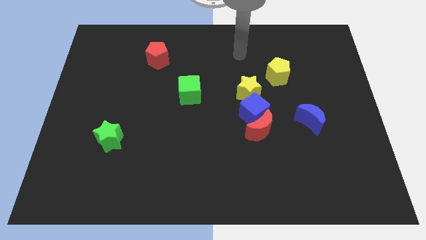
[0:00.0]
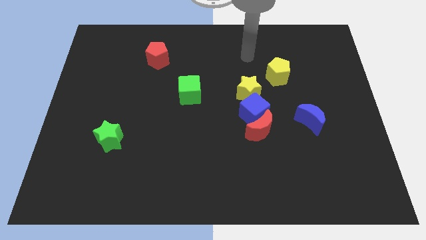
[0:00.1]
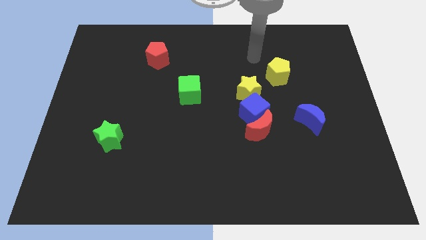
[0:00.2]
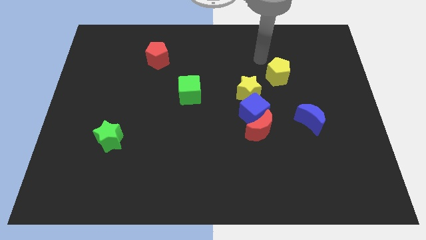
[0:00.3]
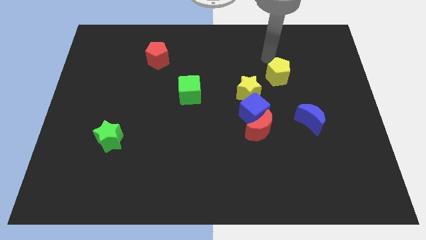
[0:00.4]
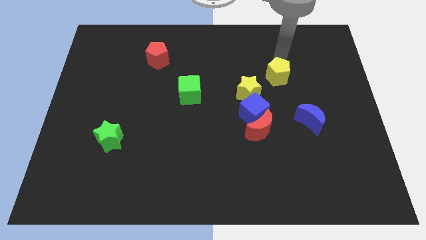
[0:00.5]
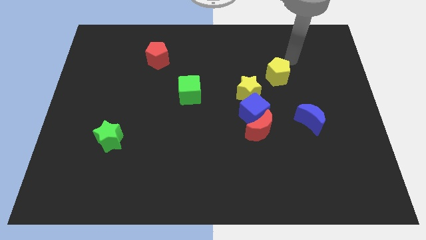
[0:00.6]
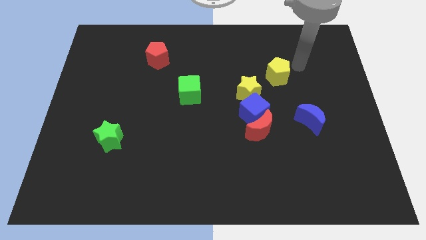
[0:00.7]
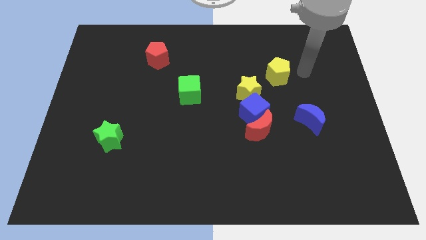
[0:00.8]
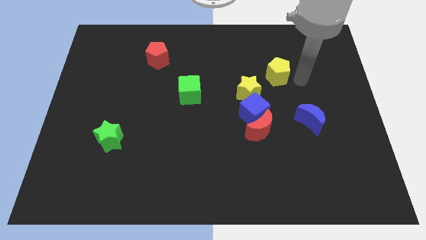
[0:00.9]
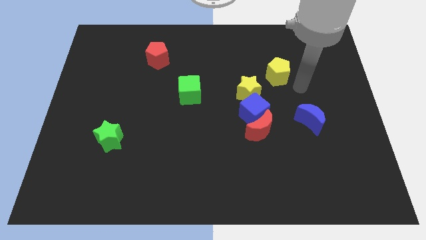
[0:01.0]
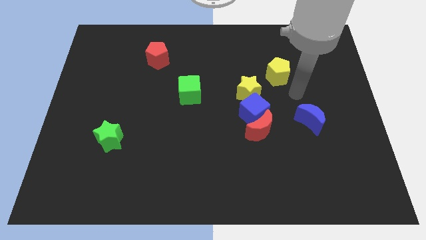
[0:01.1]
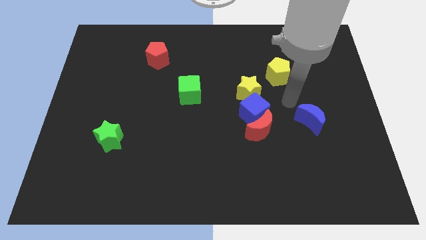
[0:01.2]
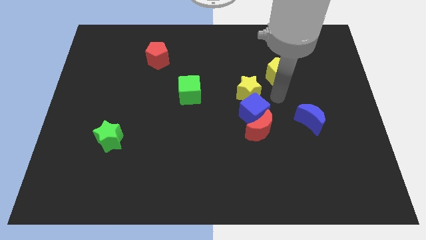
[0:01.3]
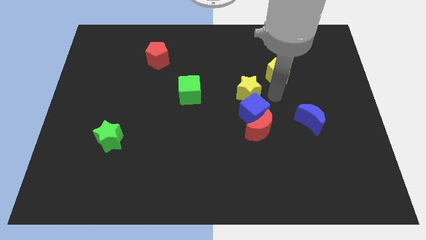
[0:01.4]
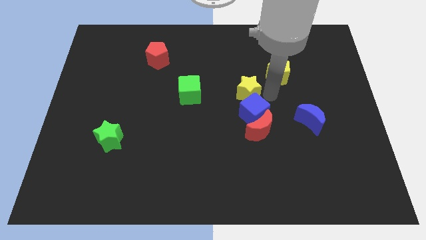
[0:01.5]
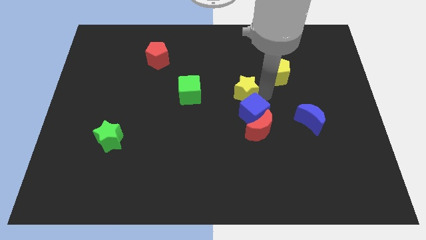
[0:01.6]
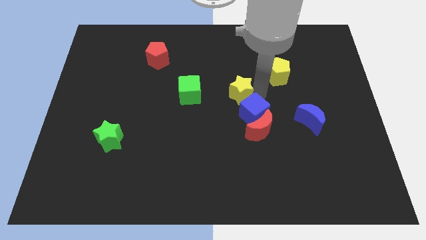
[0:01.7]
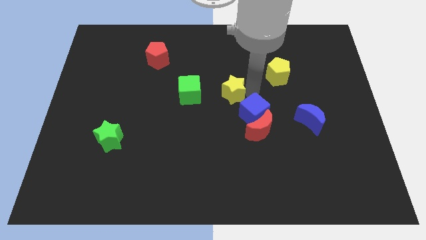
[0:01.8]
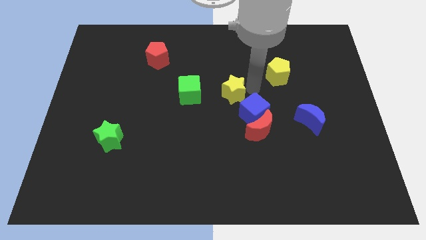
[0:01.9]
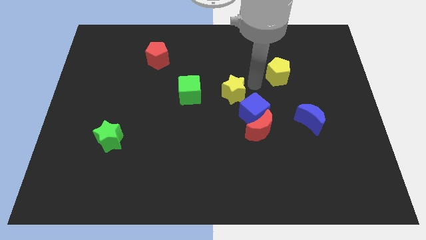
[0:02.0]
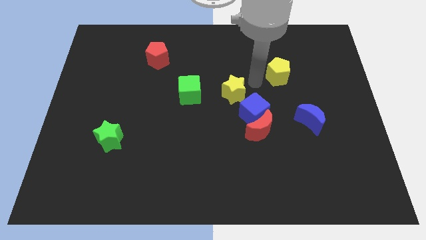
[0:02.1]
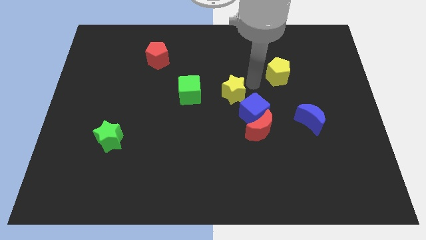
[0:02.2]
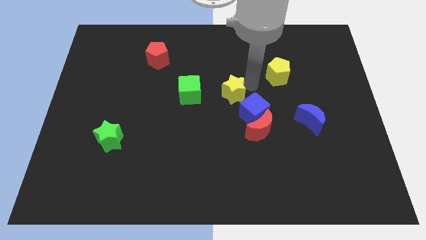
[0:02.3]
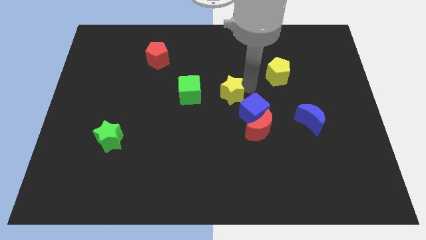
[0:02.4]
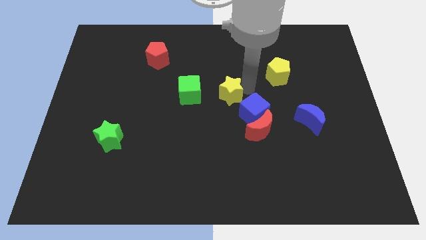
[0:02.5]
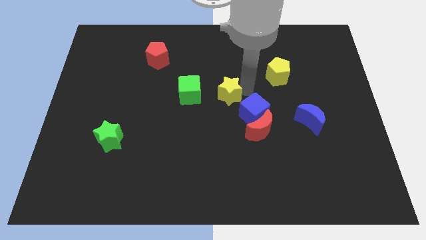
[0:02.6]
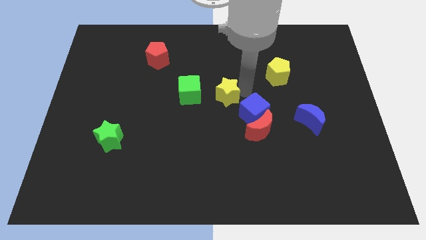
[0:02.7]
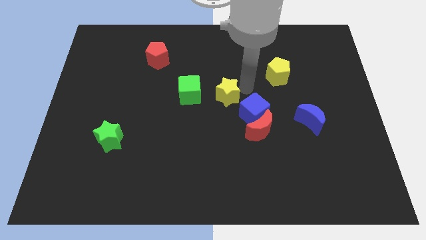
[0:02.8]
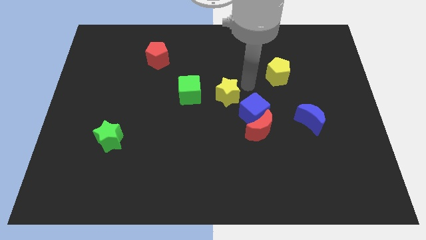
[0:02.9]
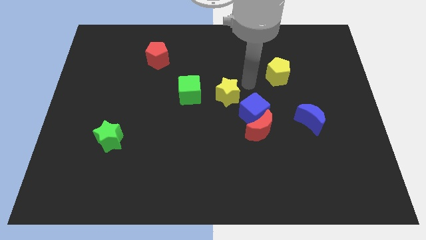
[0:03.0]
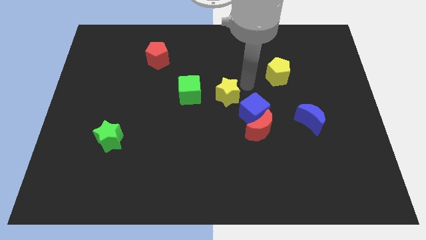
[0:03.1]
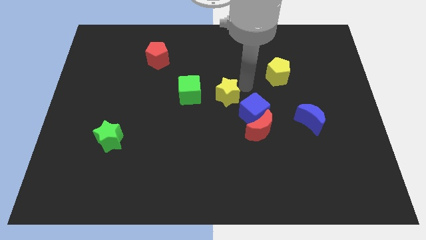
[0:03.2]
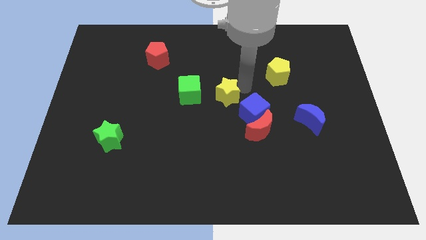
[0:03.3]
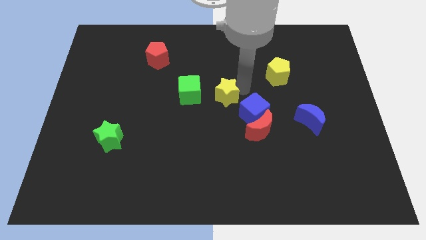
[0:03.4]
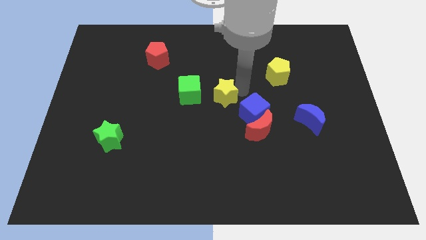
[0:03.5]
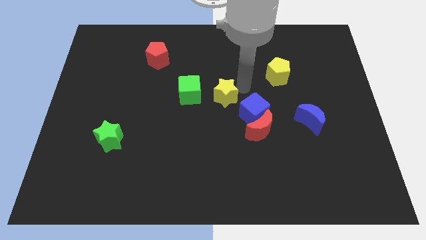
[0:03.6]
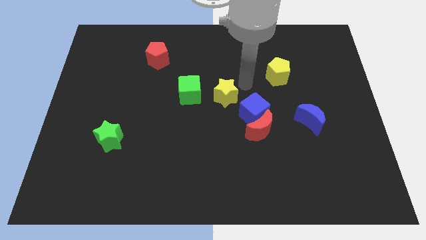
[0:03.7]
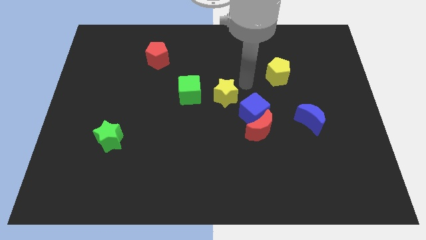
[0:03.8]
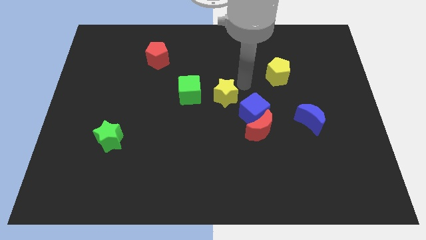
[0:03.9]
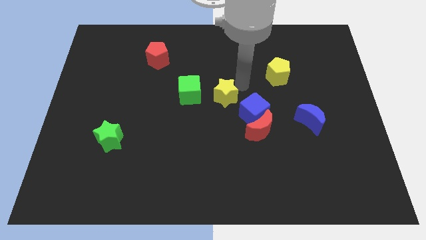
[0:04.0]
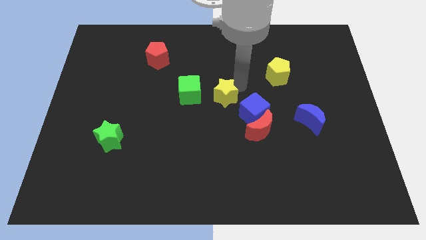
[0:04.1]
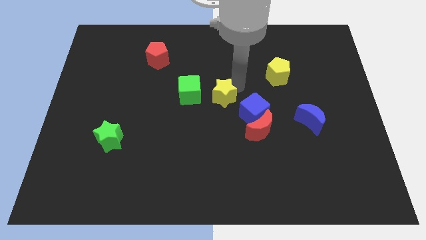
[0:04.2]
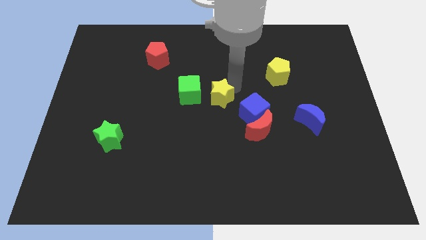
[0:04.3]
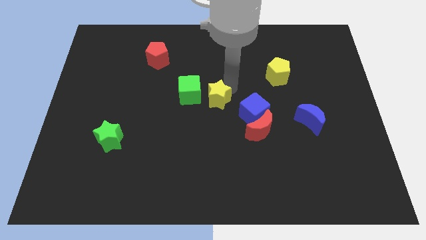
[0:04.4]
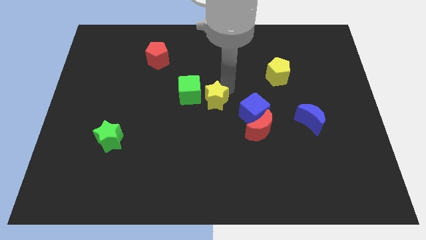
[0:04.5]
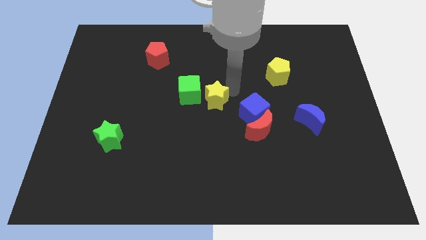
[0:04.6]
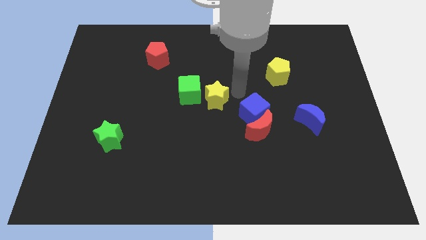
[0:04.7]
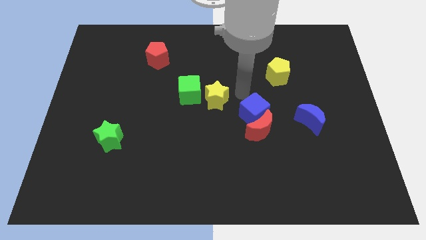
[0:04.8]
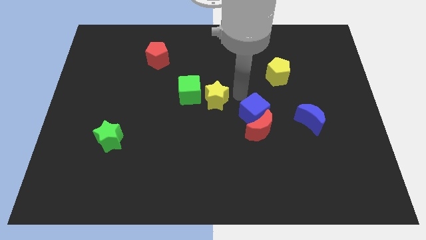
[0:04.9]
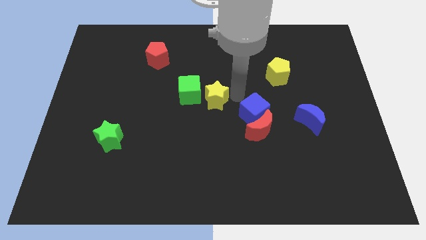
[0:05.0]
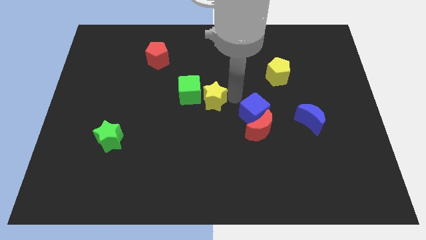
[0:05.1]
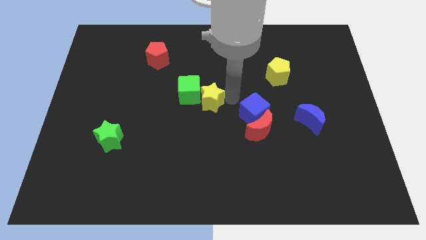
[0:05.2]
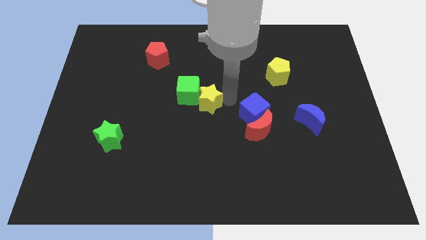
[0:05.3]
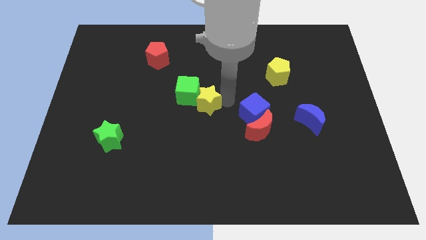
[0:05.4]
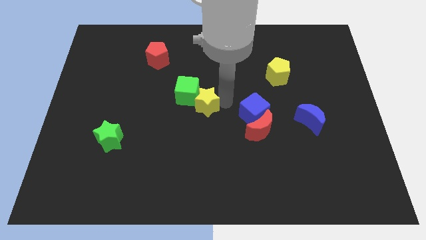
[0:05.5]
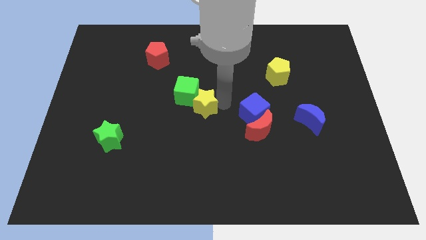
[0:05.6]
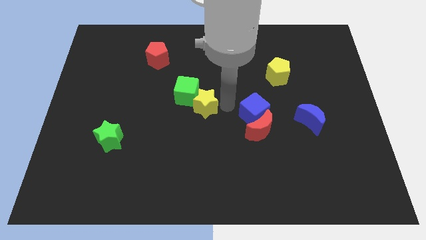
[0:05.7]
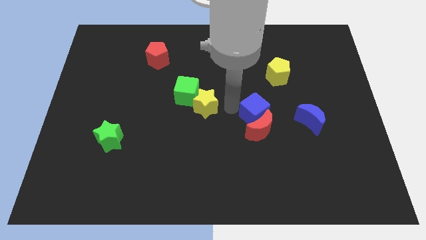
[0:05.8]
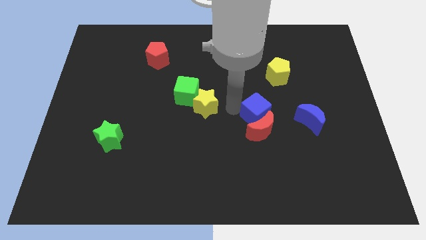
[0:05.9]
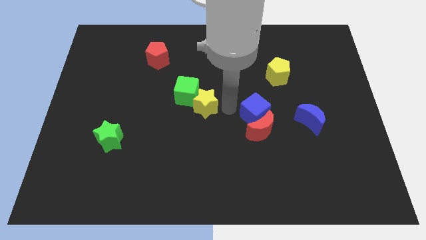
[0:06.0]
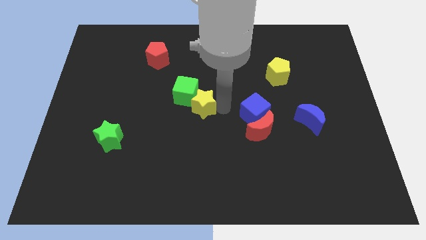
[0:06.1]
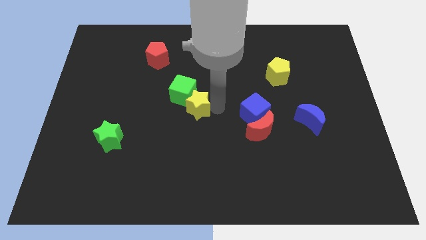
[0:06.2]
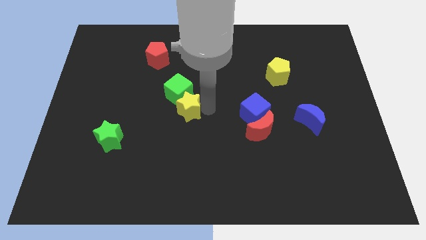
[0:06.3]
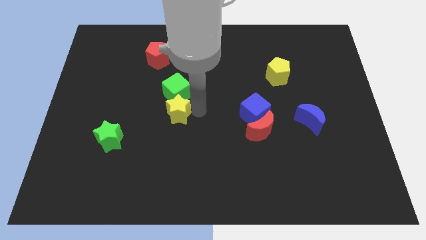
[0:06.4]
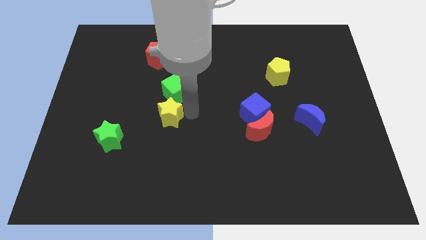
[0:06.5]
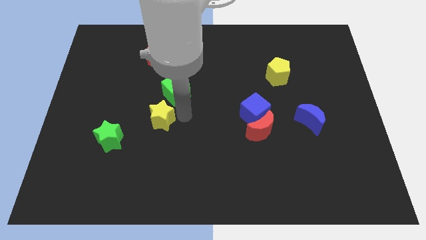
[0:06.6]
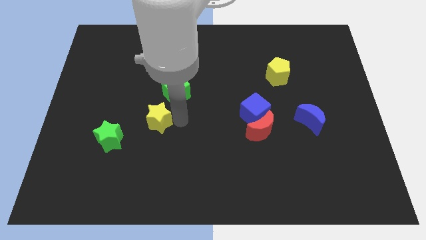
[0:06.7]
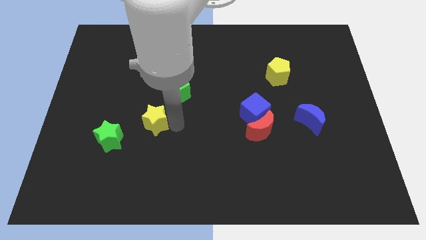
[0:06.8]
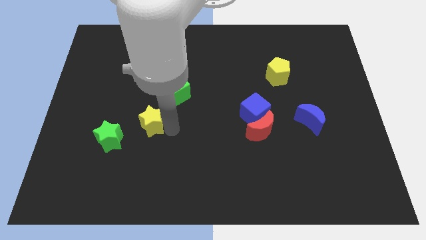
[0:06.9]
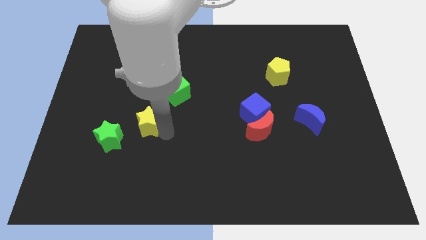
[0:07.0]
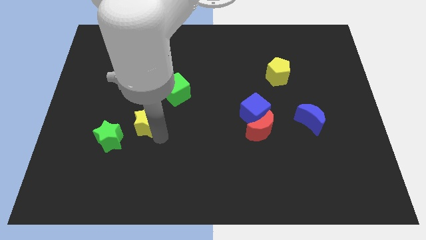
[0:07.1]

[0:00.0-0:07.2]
push the yellow star to the left

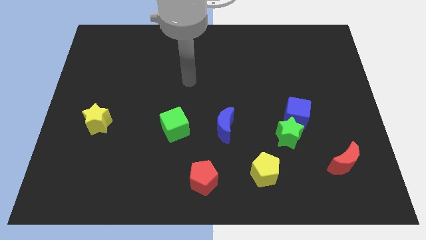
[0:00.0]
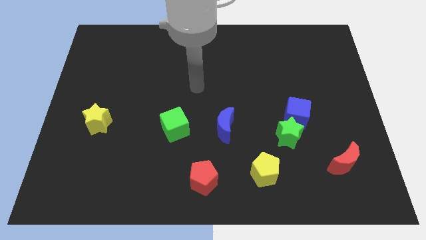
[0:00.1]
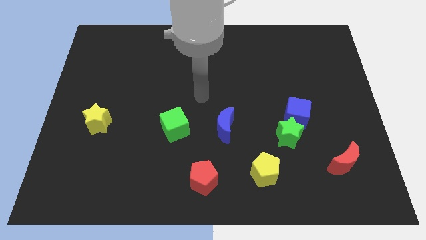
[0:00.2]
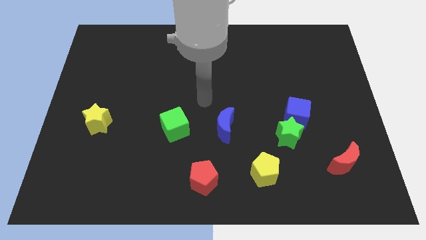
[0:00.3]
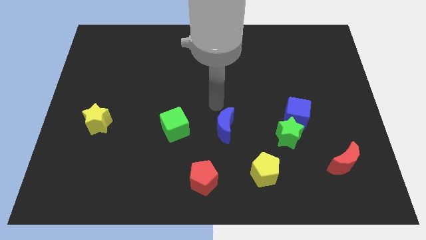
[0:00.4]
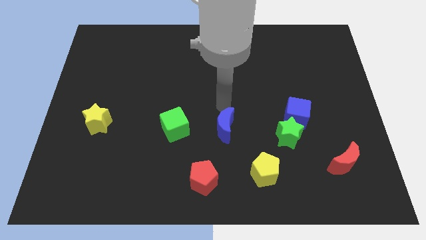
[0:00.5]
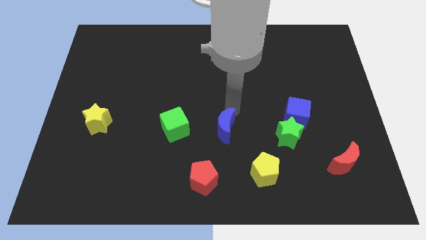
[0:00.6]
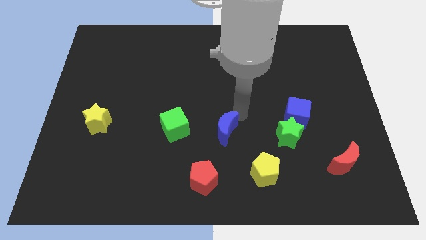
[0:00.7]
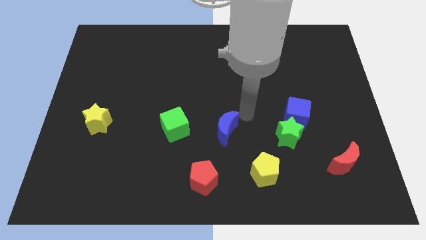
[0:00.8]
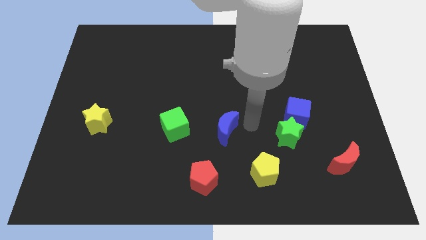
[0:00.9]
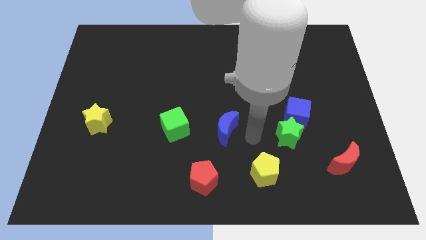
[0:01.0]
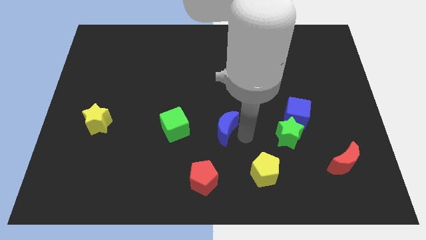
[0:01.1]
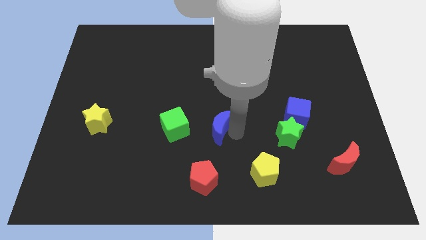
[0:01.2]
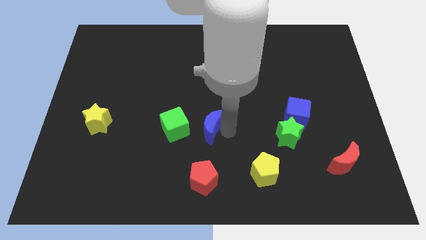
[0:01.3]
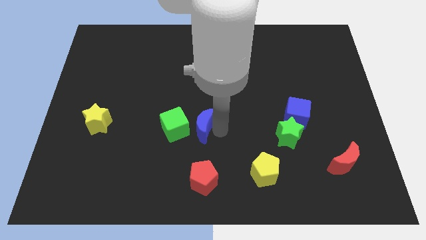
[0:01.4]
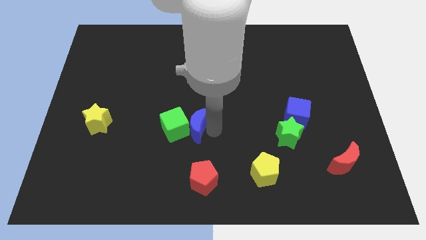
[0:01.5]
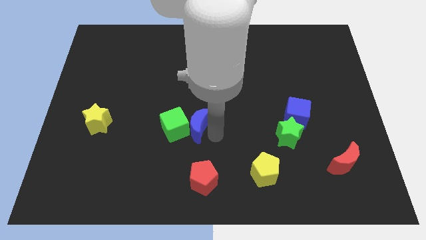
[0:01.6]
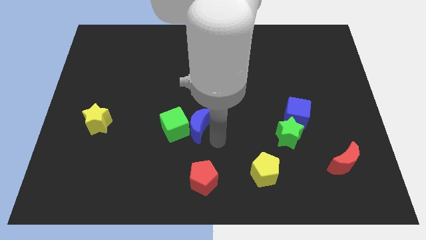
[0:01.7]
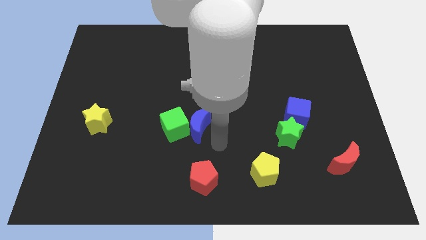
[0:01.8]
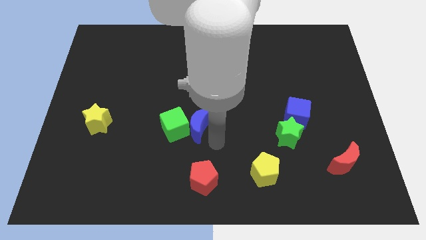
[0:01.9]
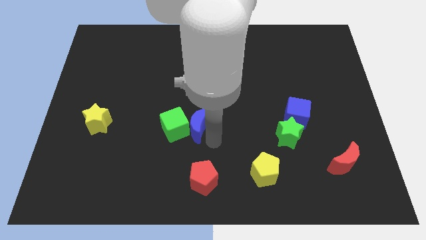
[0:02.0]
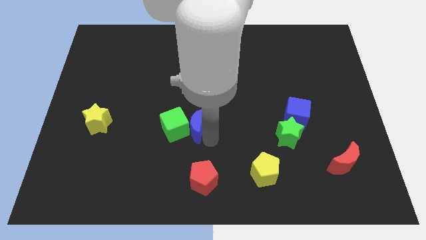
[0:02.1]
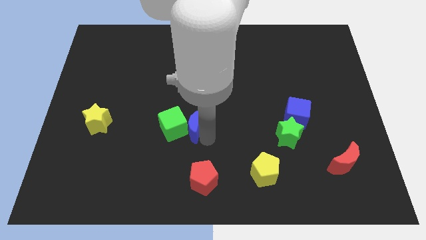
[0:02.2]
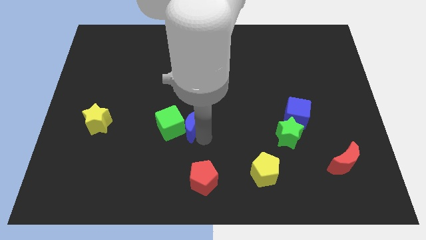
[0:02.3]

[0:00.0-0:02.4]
slide the blue moon left a little
